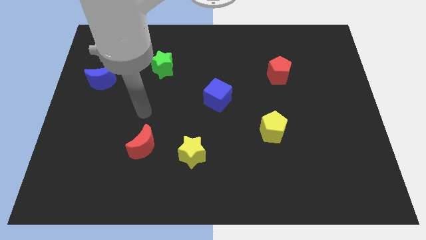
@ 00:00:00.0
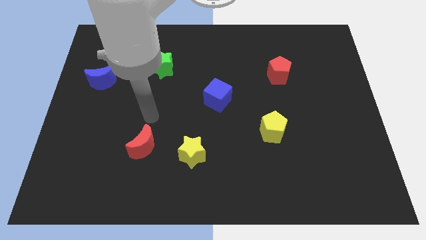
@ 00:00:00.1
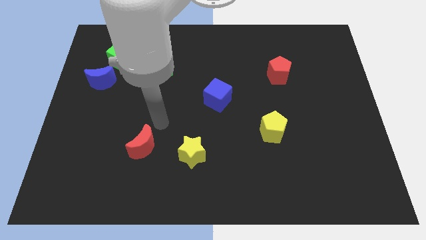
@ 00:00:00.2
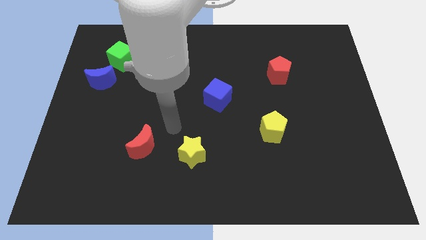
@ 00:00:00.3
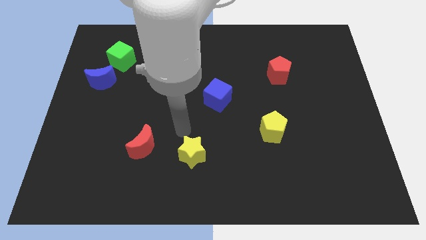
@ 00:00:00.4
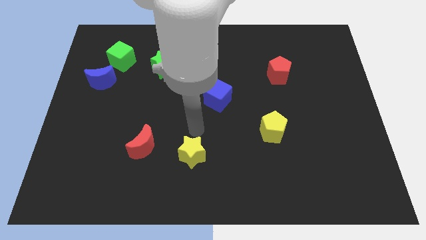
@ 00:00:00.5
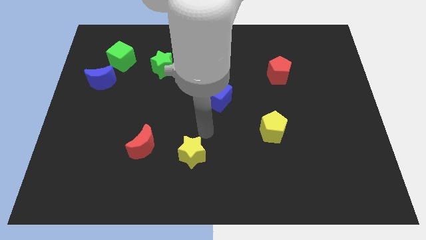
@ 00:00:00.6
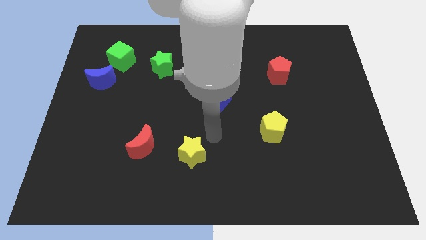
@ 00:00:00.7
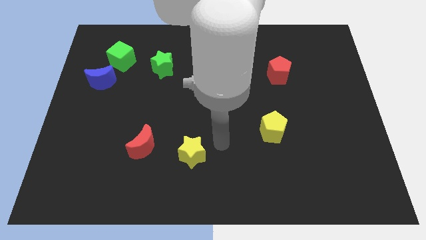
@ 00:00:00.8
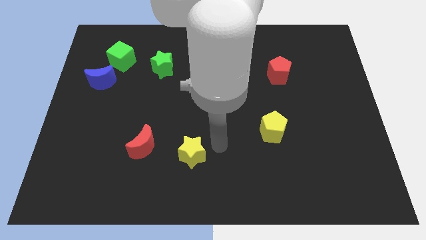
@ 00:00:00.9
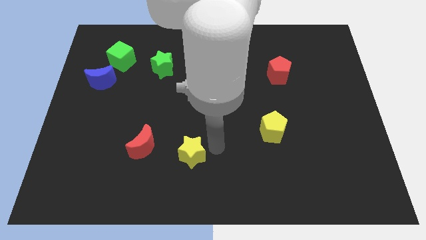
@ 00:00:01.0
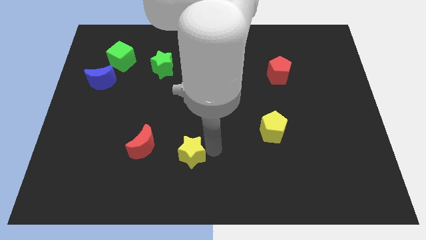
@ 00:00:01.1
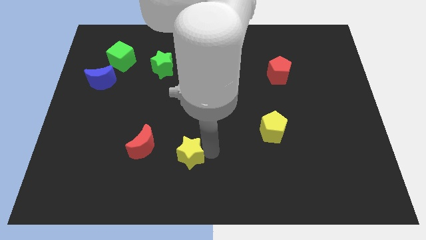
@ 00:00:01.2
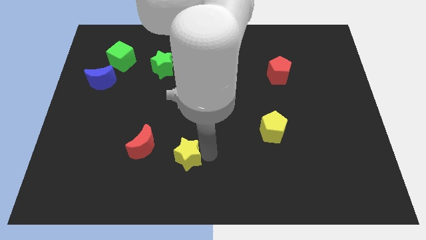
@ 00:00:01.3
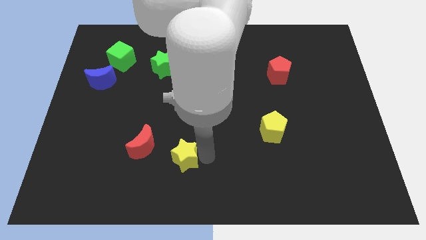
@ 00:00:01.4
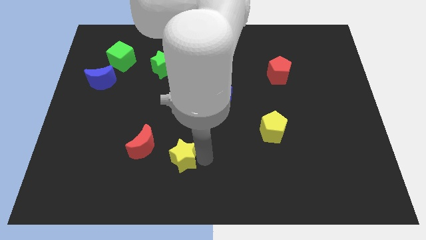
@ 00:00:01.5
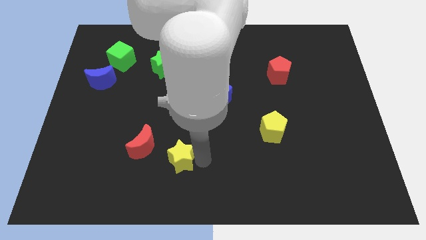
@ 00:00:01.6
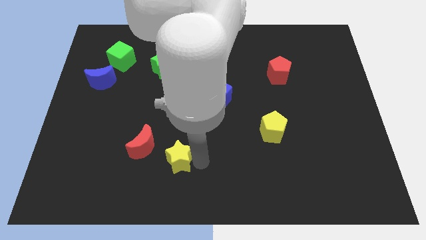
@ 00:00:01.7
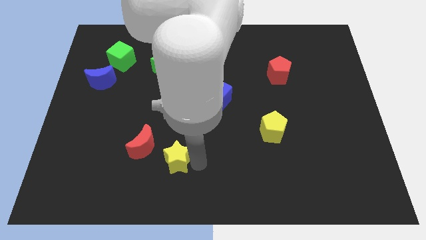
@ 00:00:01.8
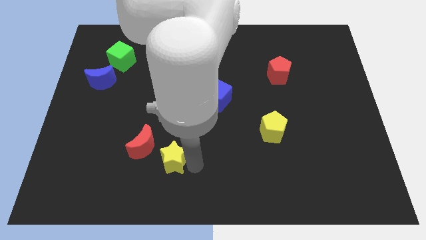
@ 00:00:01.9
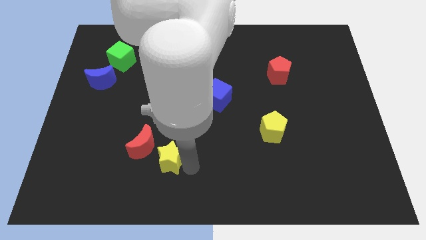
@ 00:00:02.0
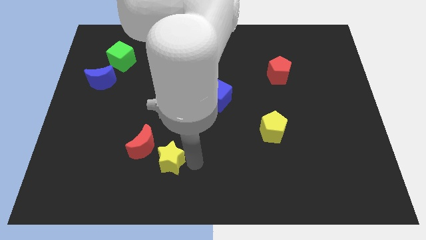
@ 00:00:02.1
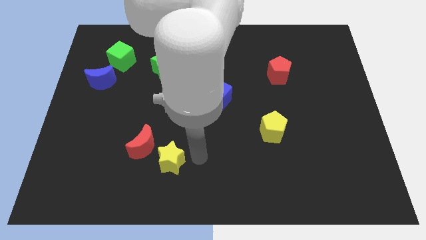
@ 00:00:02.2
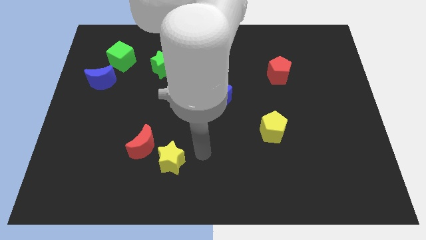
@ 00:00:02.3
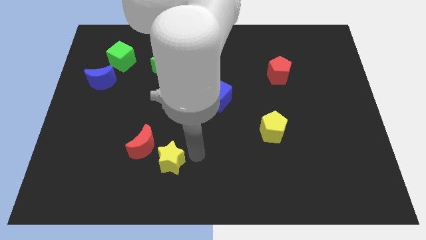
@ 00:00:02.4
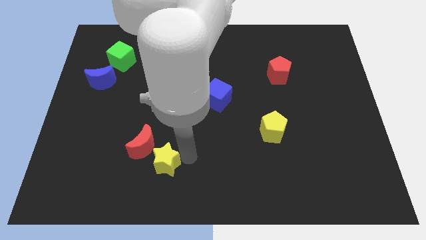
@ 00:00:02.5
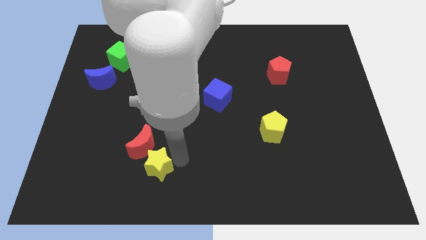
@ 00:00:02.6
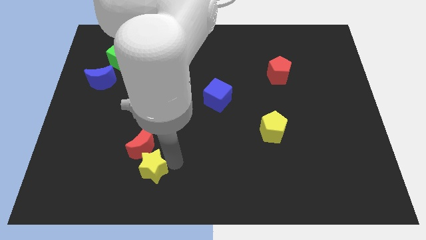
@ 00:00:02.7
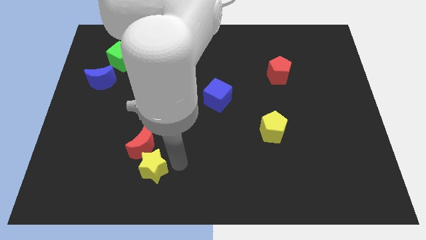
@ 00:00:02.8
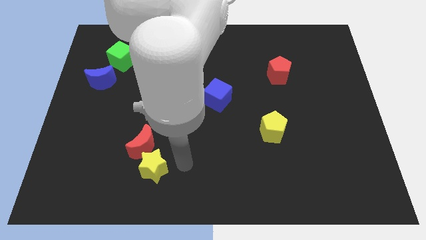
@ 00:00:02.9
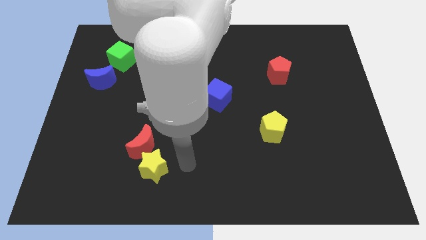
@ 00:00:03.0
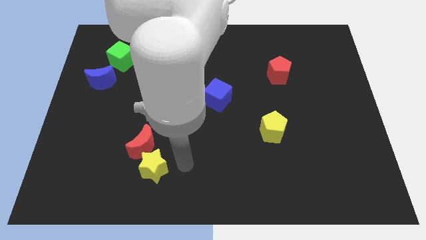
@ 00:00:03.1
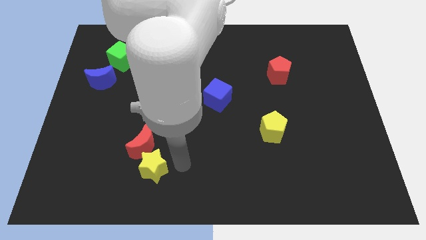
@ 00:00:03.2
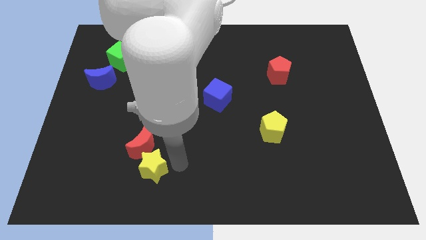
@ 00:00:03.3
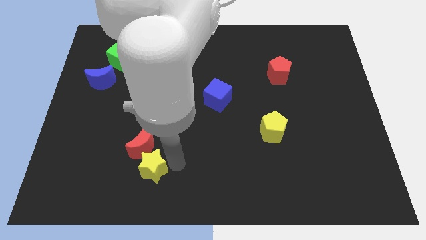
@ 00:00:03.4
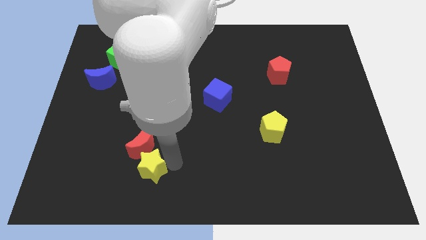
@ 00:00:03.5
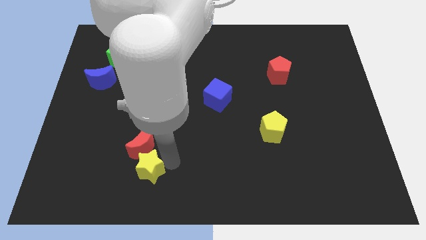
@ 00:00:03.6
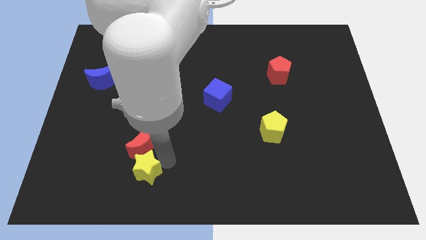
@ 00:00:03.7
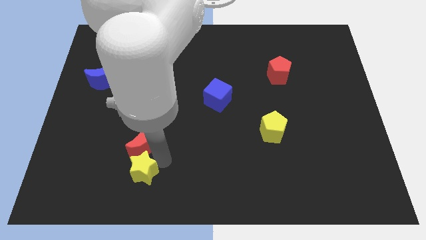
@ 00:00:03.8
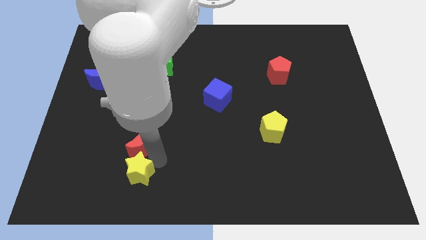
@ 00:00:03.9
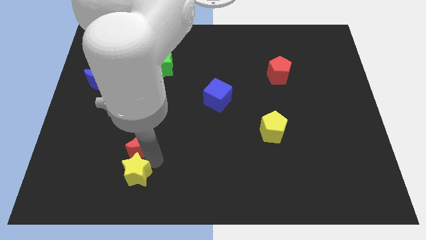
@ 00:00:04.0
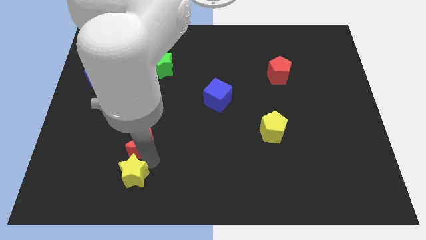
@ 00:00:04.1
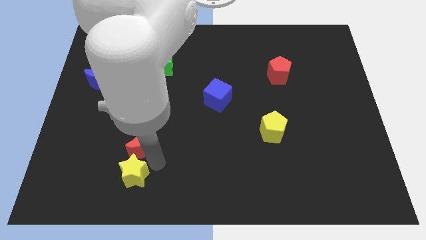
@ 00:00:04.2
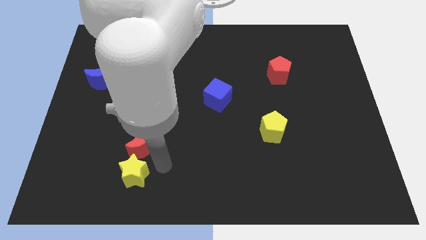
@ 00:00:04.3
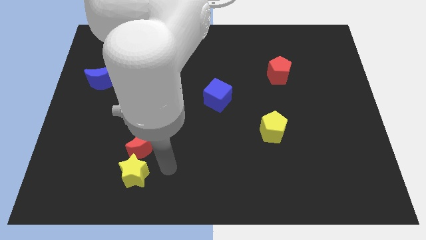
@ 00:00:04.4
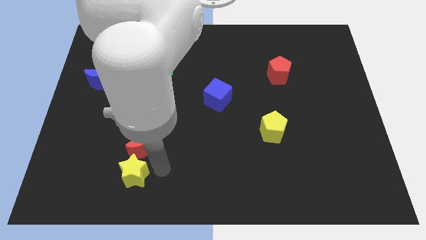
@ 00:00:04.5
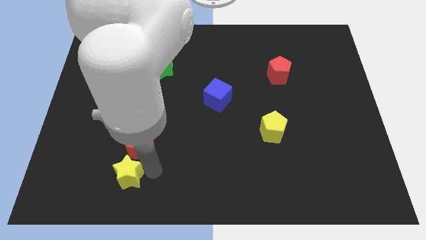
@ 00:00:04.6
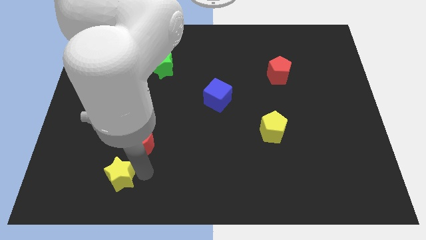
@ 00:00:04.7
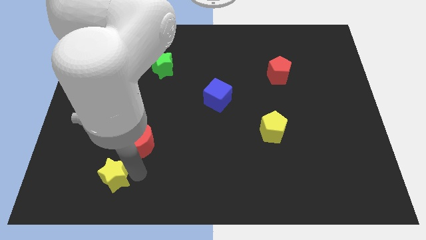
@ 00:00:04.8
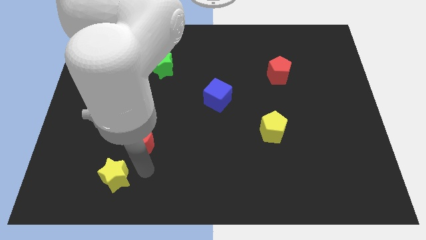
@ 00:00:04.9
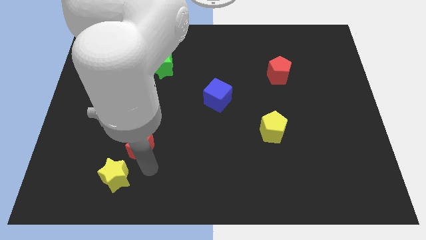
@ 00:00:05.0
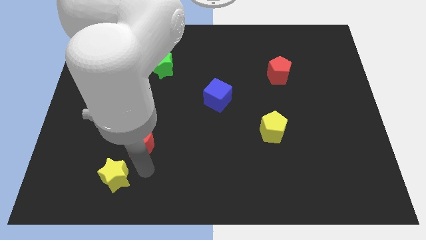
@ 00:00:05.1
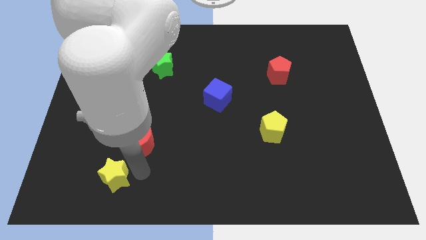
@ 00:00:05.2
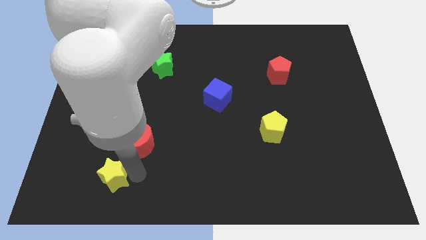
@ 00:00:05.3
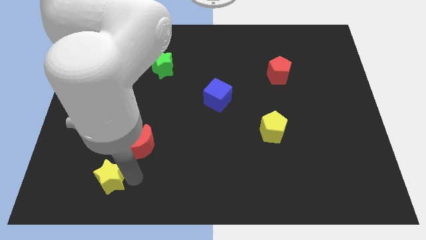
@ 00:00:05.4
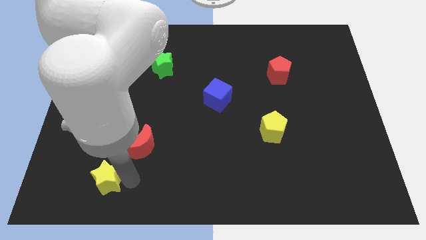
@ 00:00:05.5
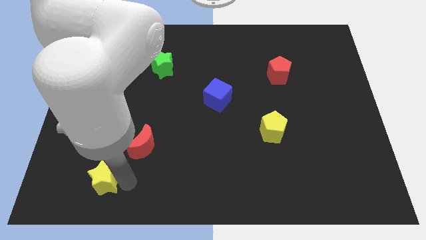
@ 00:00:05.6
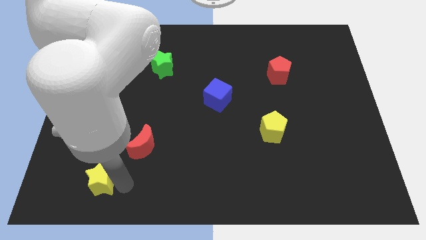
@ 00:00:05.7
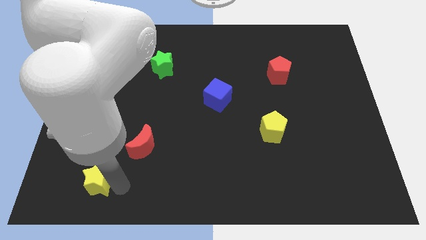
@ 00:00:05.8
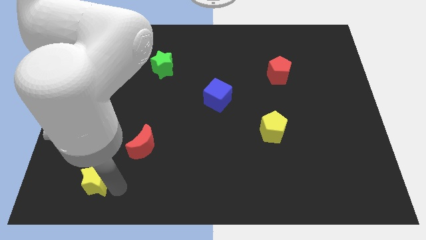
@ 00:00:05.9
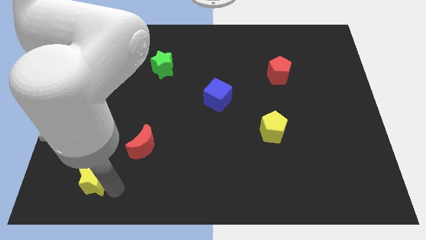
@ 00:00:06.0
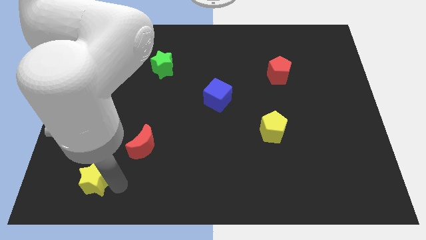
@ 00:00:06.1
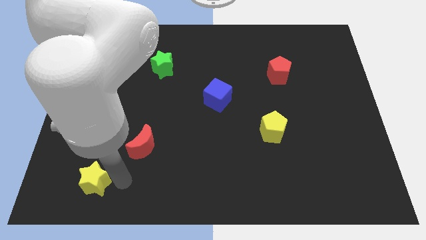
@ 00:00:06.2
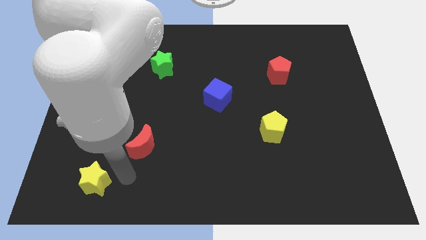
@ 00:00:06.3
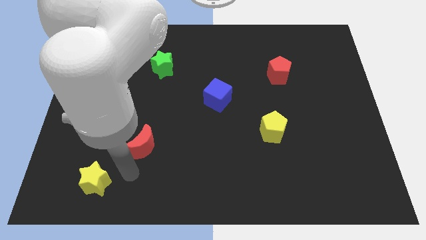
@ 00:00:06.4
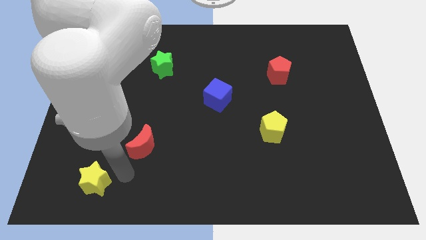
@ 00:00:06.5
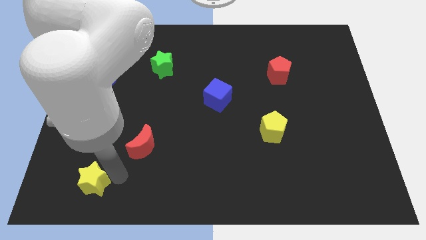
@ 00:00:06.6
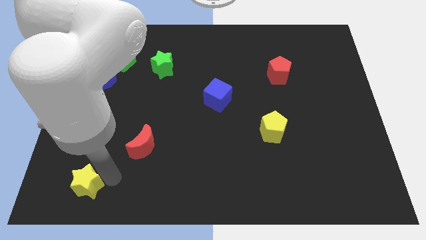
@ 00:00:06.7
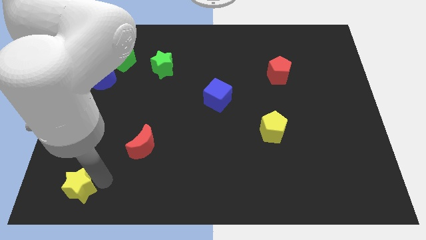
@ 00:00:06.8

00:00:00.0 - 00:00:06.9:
move the yellow star to the bottom left of the board
